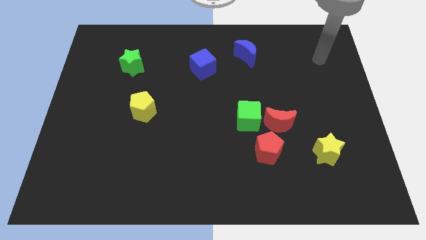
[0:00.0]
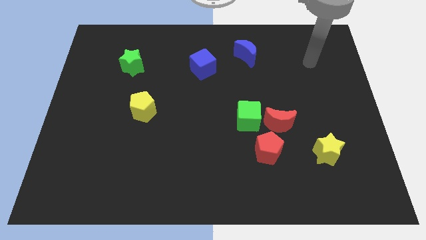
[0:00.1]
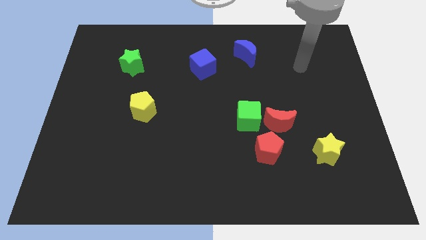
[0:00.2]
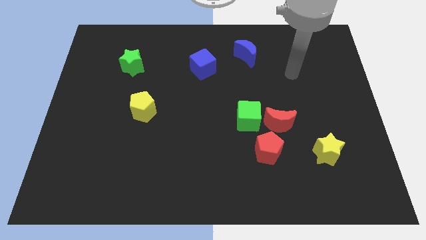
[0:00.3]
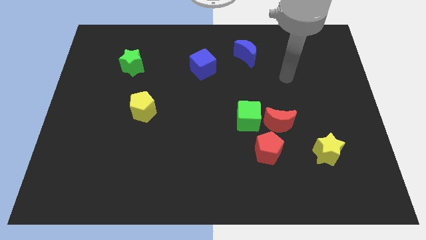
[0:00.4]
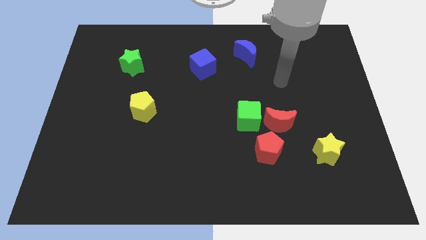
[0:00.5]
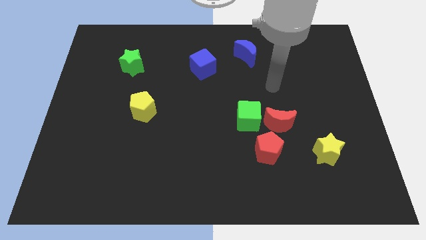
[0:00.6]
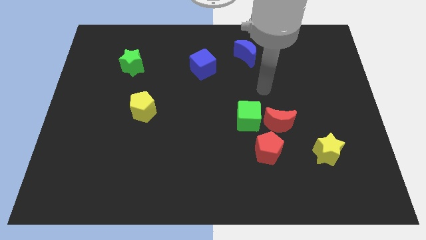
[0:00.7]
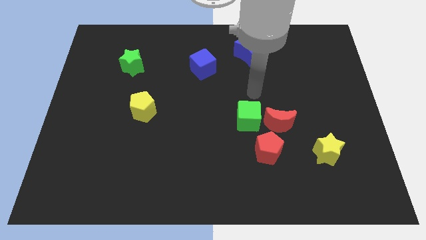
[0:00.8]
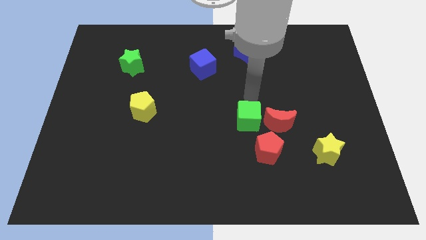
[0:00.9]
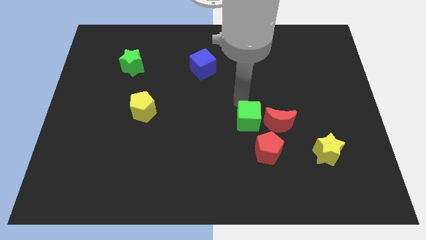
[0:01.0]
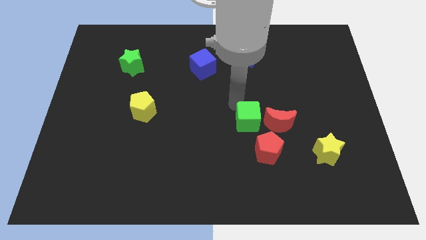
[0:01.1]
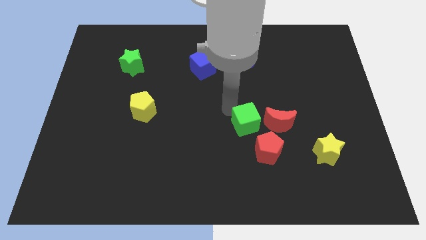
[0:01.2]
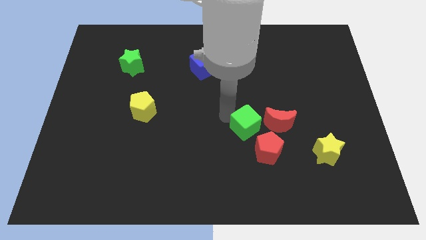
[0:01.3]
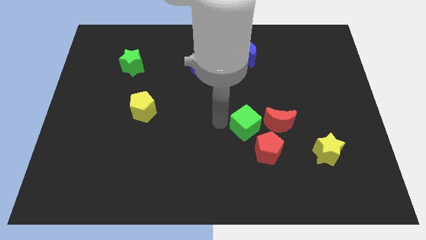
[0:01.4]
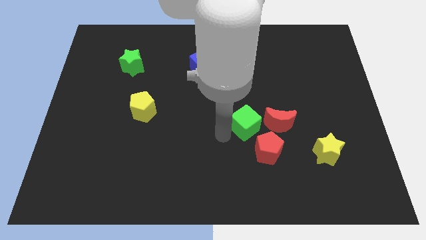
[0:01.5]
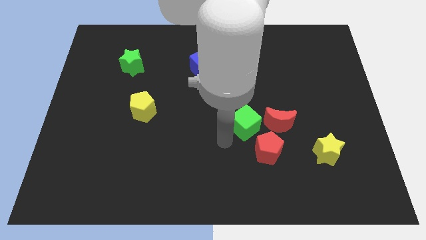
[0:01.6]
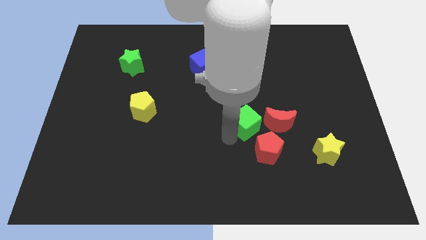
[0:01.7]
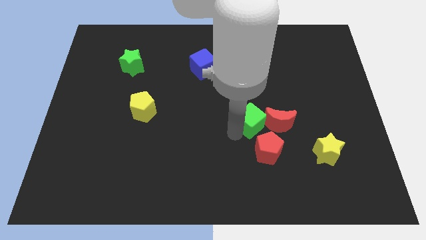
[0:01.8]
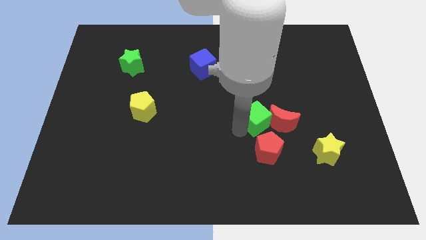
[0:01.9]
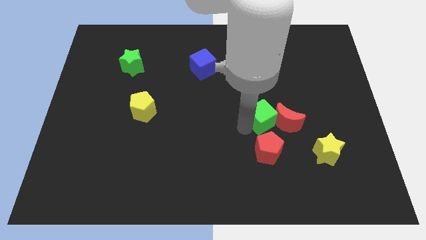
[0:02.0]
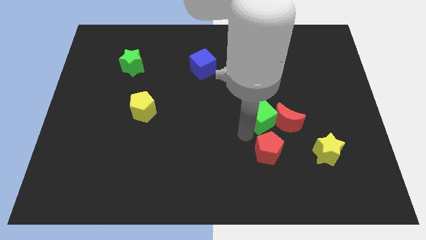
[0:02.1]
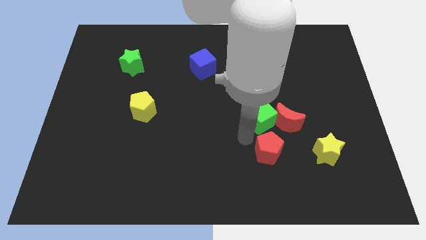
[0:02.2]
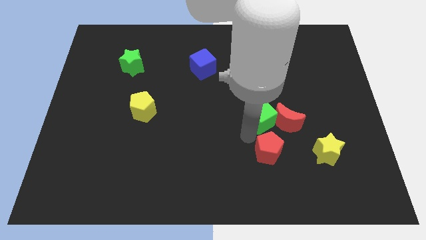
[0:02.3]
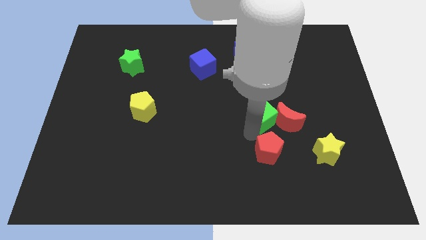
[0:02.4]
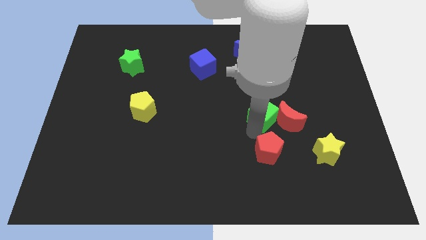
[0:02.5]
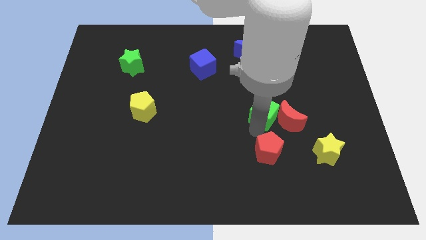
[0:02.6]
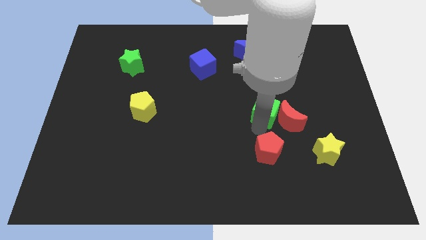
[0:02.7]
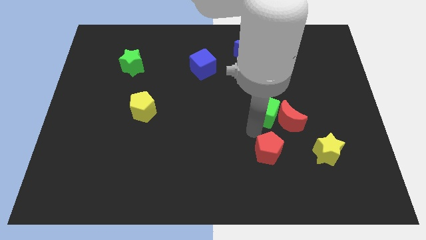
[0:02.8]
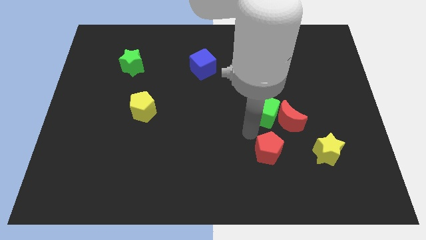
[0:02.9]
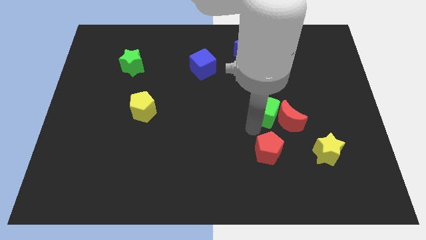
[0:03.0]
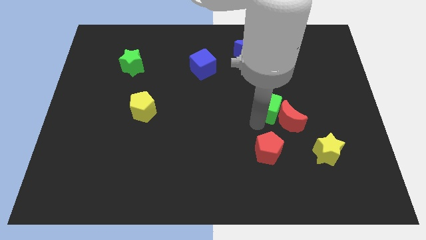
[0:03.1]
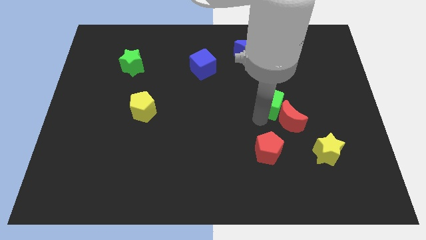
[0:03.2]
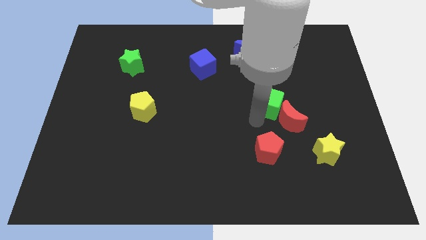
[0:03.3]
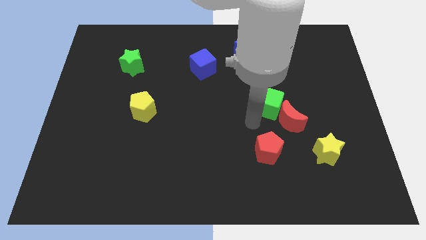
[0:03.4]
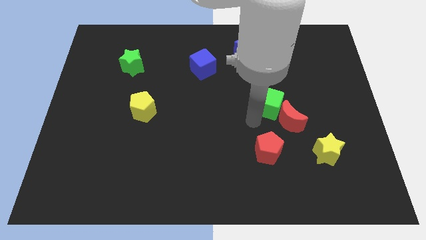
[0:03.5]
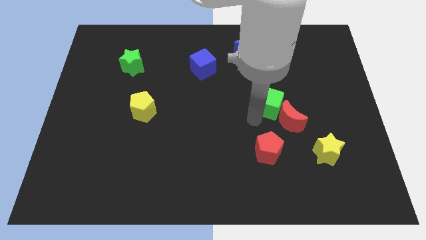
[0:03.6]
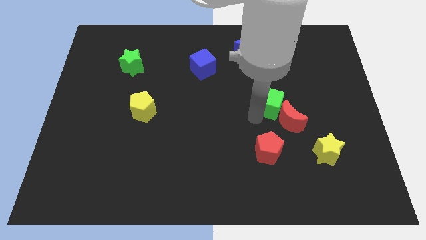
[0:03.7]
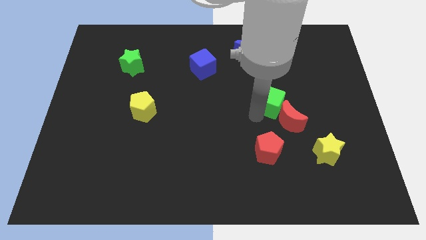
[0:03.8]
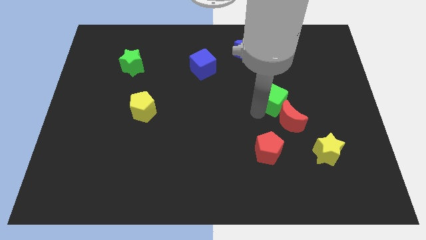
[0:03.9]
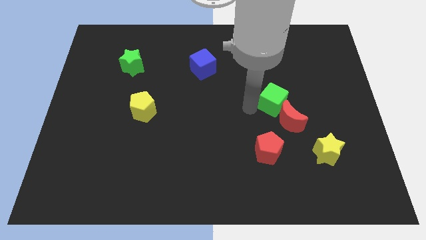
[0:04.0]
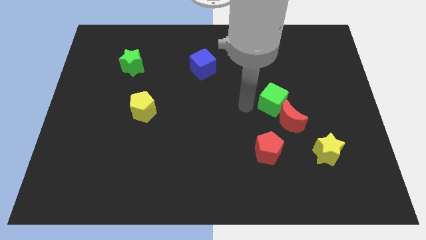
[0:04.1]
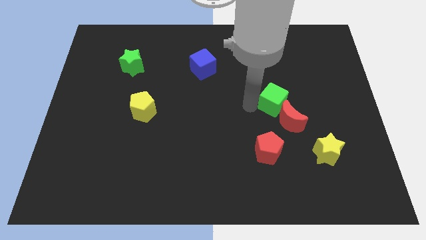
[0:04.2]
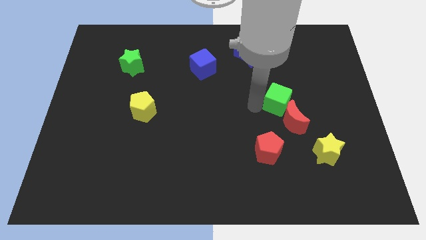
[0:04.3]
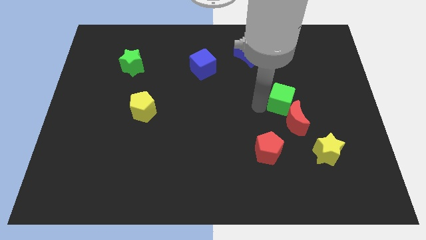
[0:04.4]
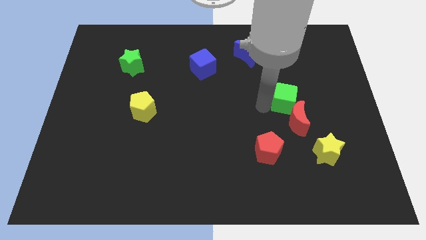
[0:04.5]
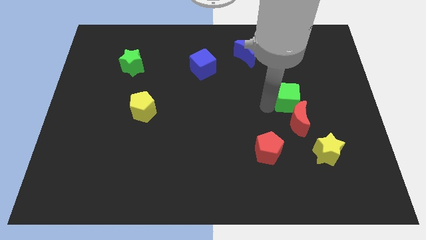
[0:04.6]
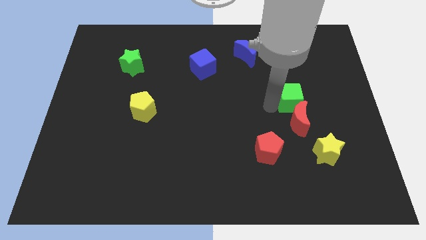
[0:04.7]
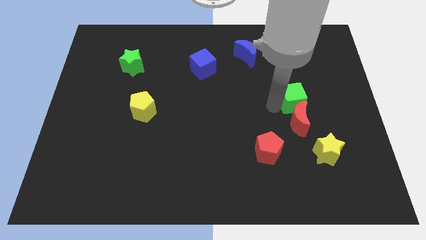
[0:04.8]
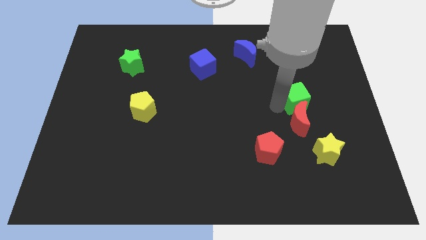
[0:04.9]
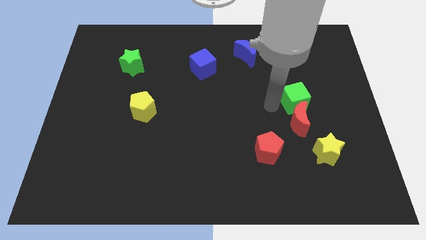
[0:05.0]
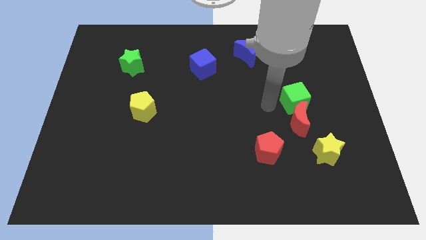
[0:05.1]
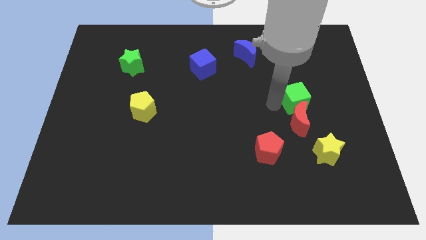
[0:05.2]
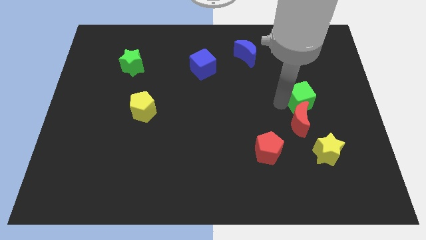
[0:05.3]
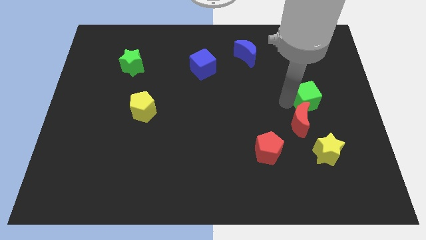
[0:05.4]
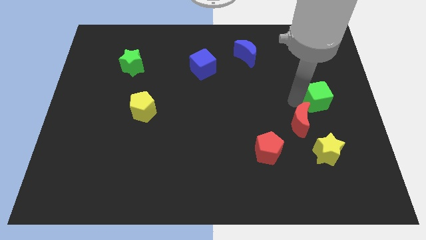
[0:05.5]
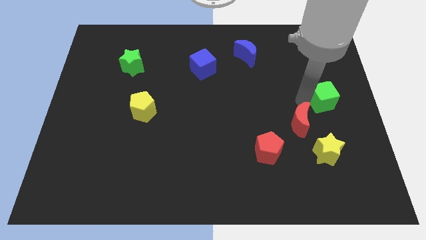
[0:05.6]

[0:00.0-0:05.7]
slide the green cube to the right side of the board

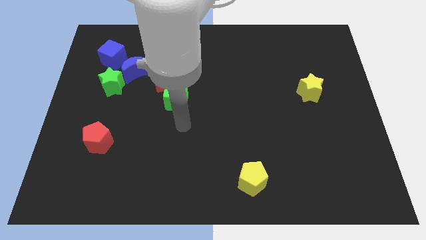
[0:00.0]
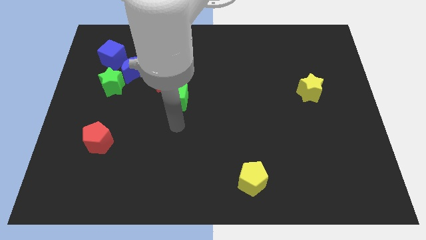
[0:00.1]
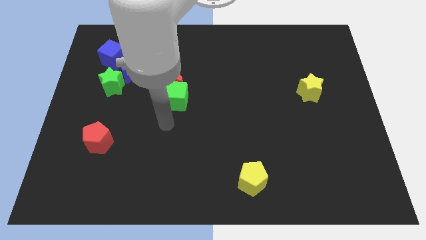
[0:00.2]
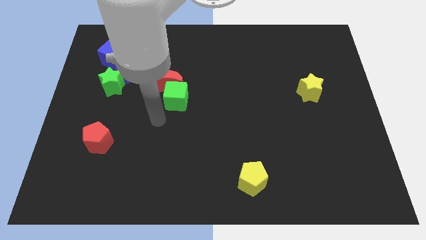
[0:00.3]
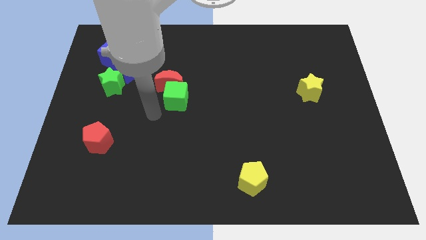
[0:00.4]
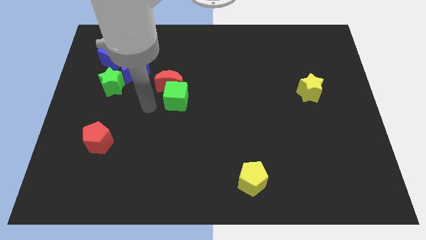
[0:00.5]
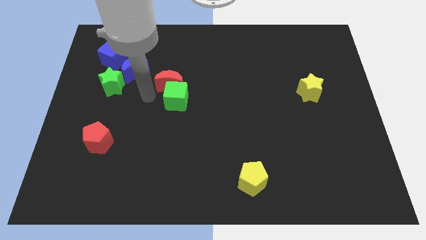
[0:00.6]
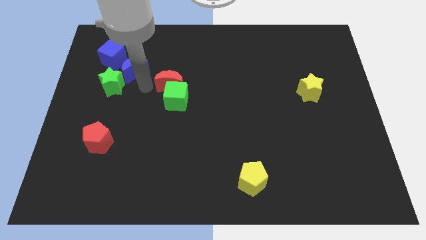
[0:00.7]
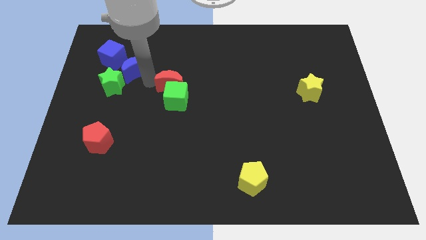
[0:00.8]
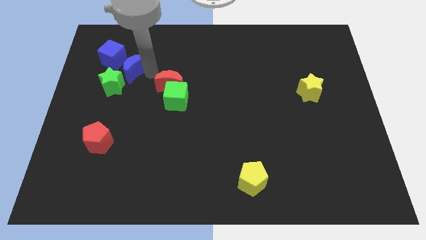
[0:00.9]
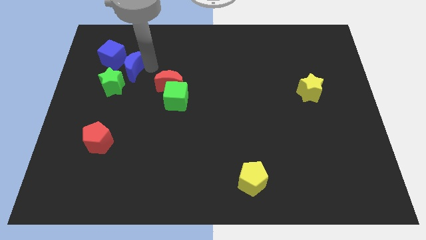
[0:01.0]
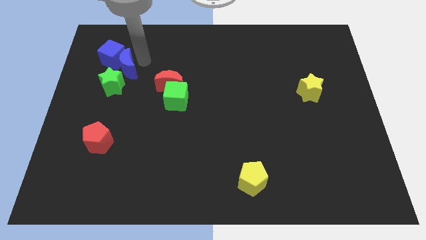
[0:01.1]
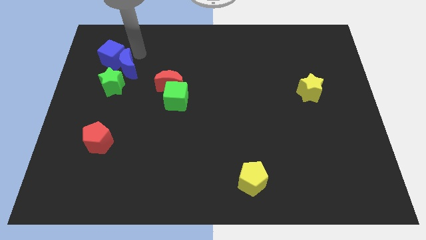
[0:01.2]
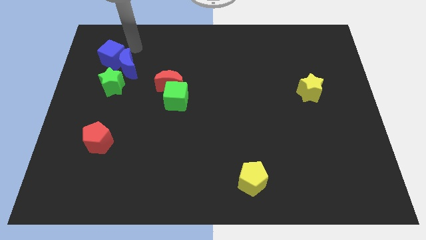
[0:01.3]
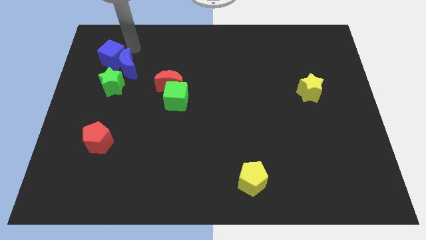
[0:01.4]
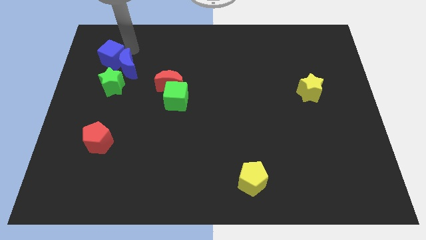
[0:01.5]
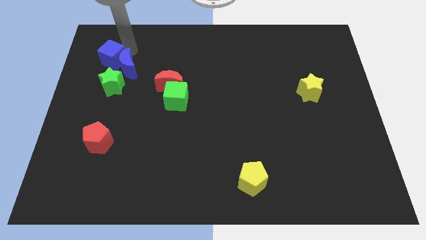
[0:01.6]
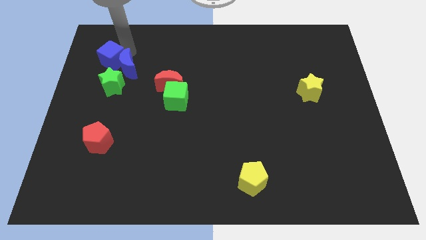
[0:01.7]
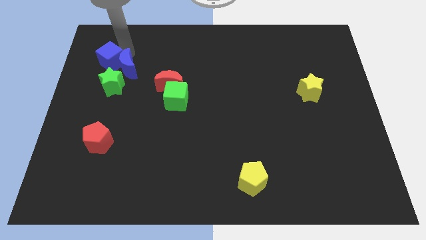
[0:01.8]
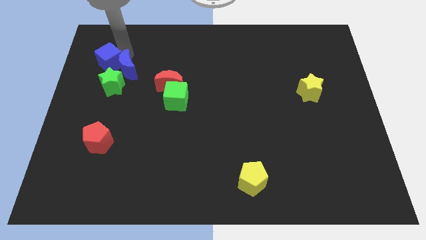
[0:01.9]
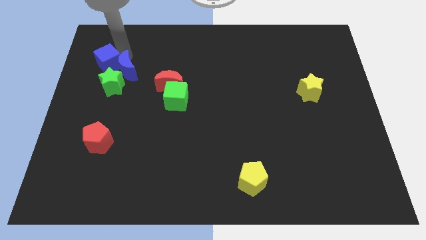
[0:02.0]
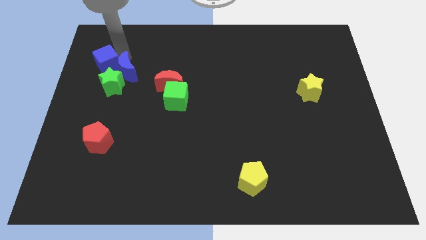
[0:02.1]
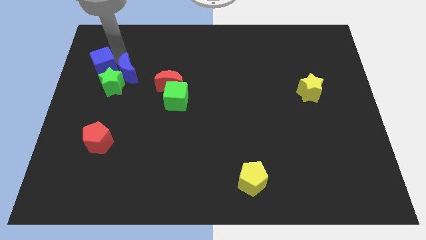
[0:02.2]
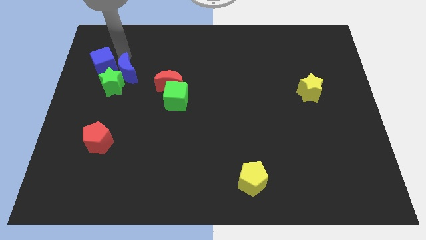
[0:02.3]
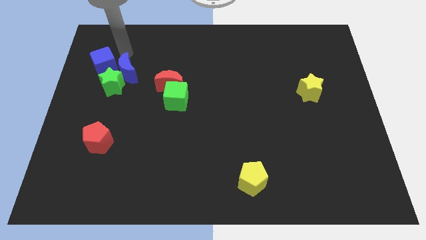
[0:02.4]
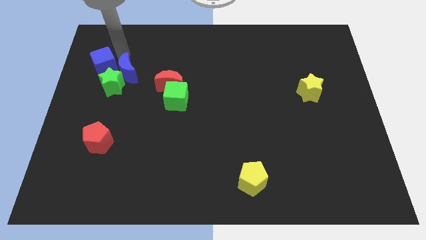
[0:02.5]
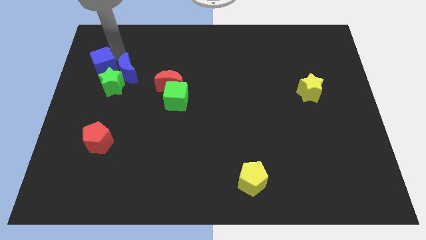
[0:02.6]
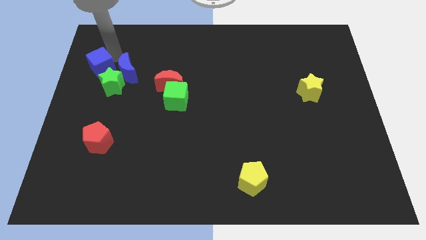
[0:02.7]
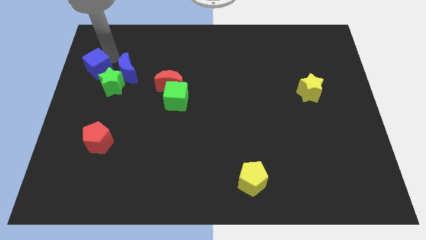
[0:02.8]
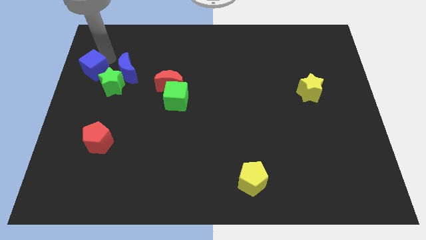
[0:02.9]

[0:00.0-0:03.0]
move the blue cube to the center left
